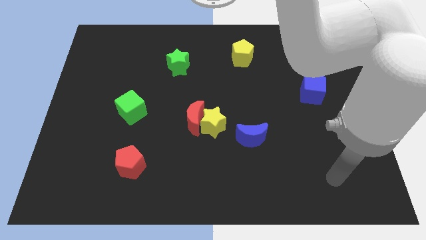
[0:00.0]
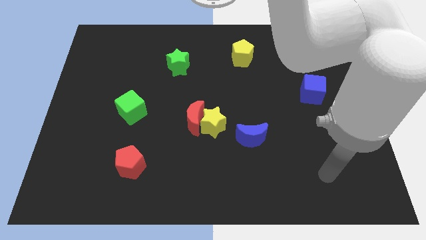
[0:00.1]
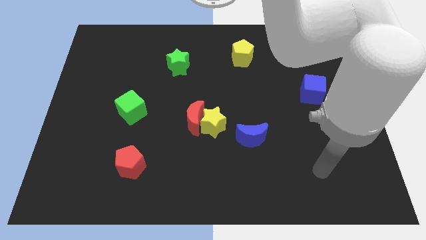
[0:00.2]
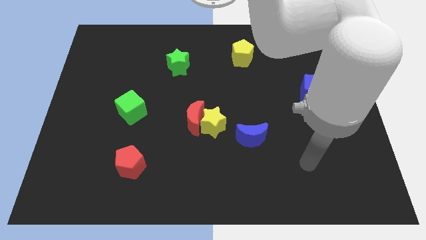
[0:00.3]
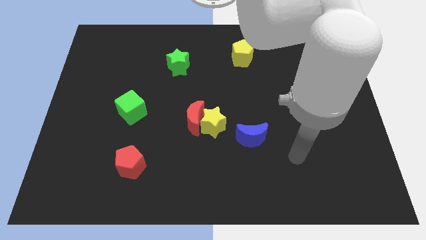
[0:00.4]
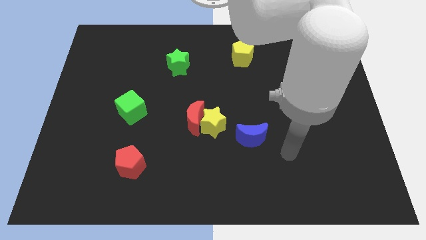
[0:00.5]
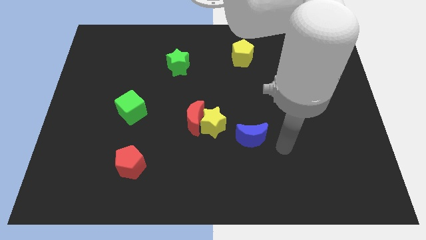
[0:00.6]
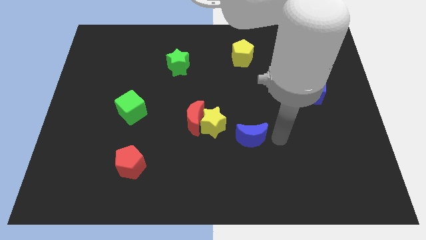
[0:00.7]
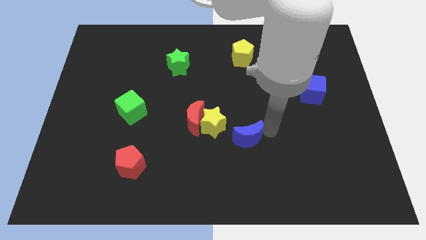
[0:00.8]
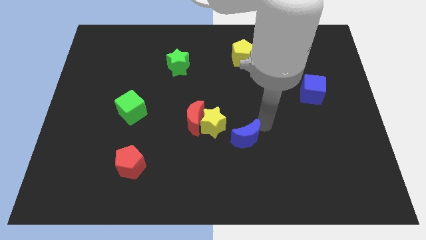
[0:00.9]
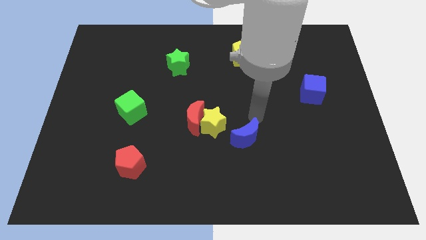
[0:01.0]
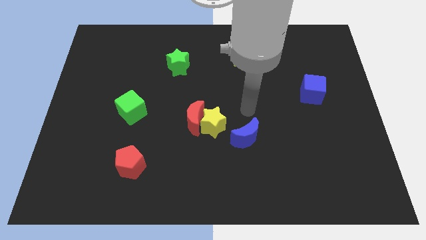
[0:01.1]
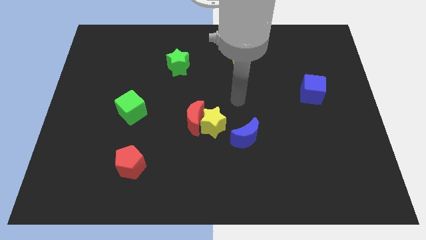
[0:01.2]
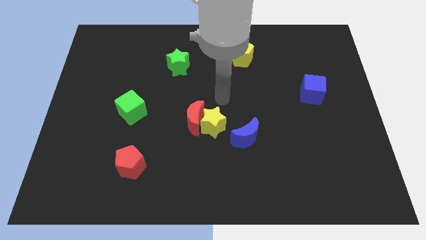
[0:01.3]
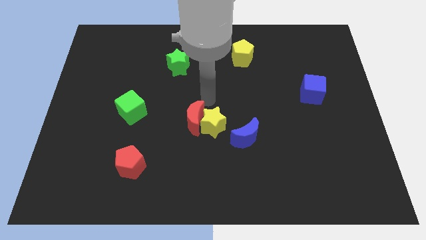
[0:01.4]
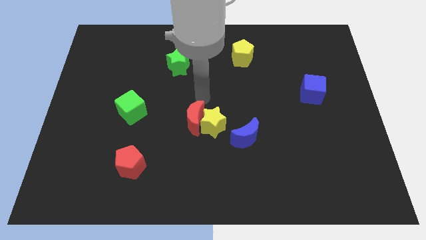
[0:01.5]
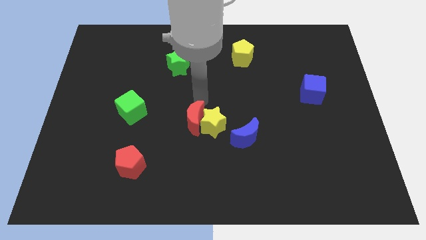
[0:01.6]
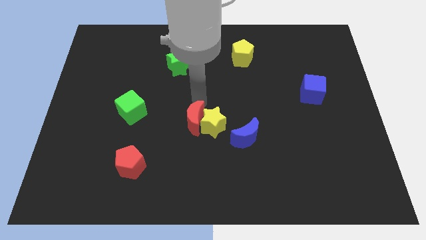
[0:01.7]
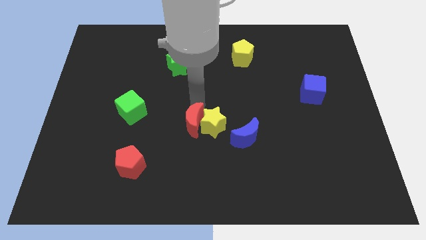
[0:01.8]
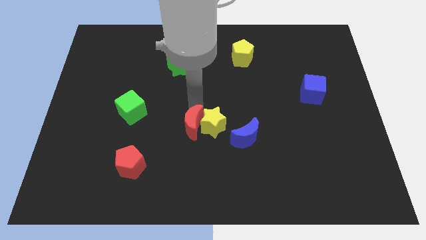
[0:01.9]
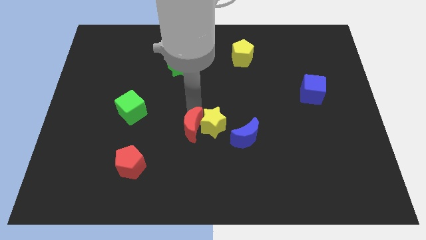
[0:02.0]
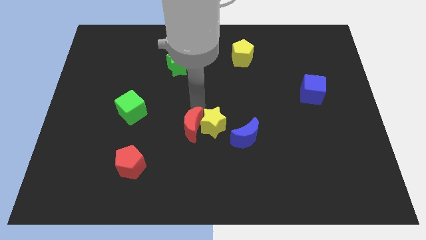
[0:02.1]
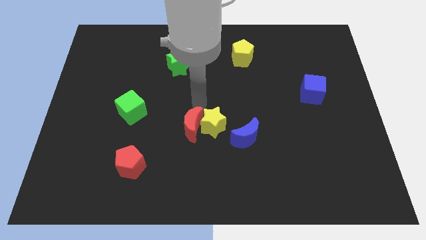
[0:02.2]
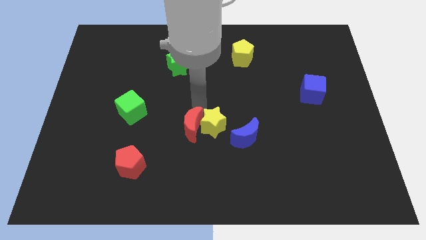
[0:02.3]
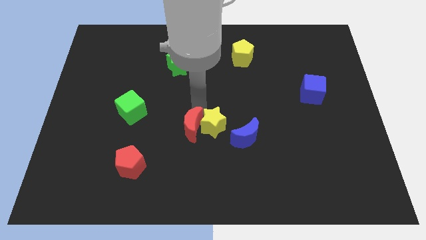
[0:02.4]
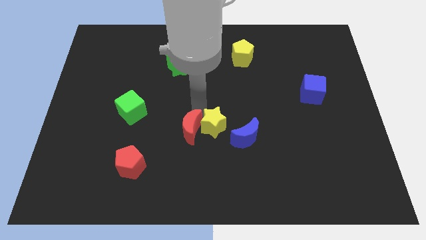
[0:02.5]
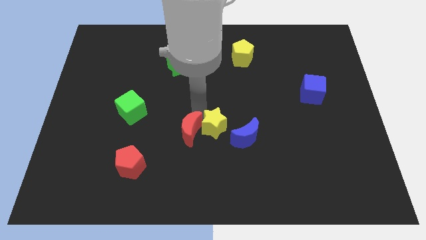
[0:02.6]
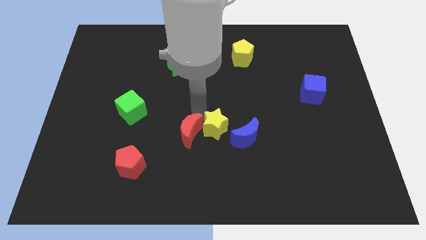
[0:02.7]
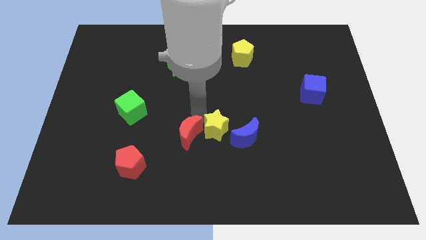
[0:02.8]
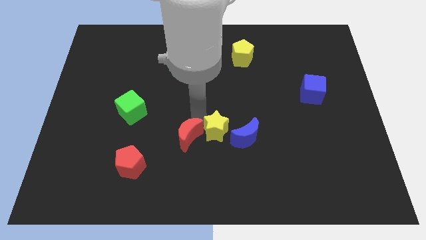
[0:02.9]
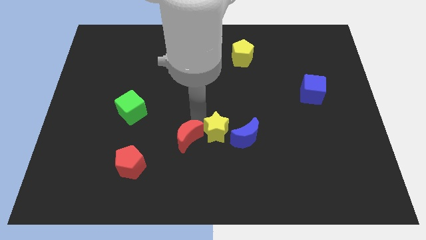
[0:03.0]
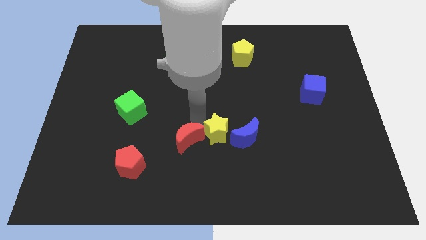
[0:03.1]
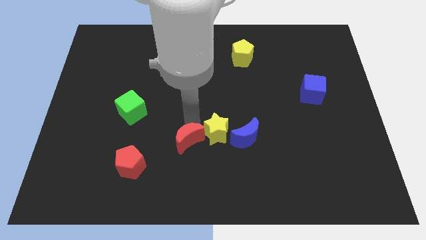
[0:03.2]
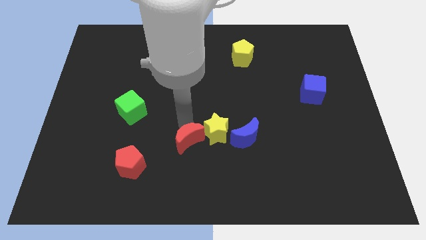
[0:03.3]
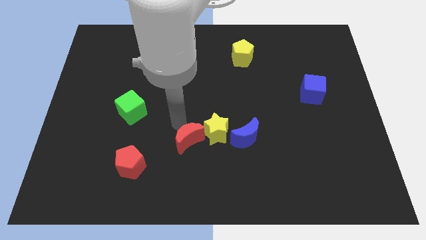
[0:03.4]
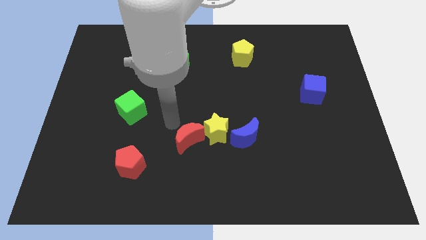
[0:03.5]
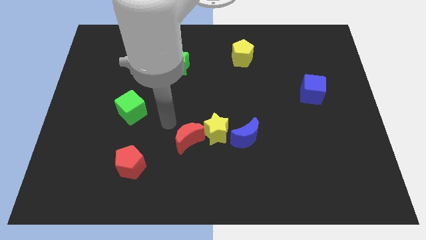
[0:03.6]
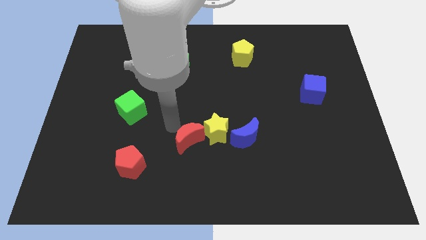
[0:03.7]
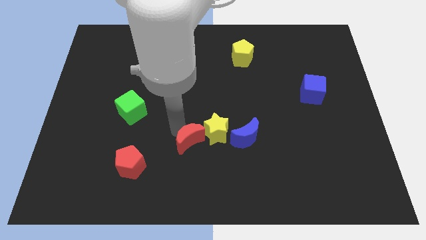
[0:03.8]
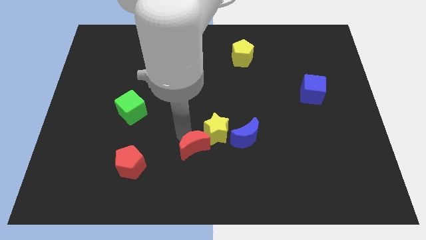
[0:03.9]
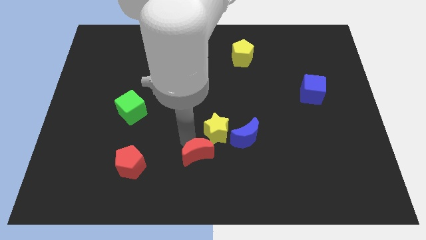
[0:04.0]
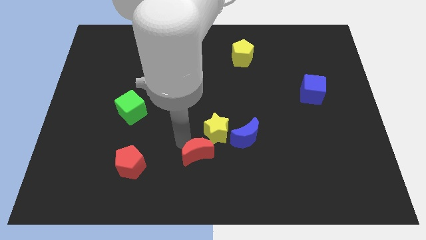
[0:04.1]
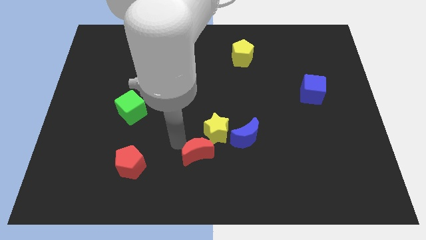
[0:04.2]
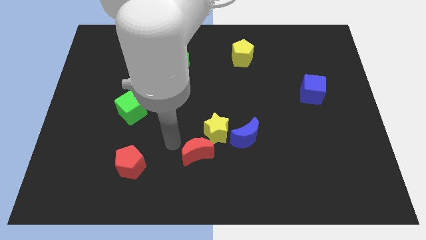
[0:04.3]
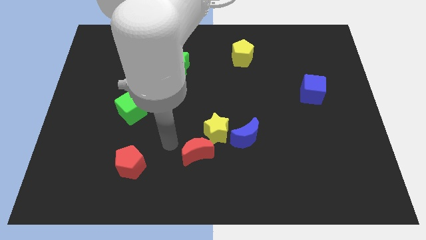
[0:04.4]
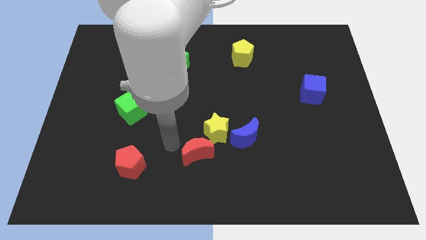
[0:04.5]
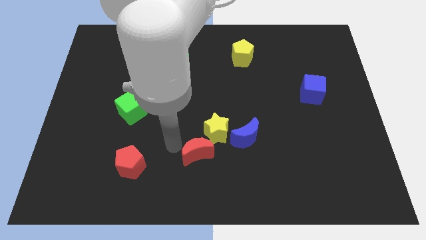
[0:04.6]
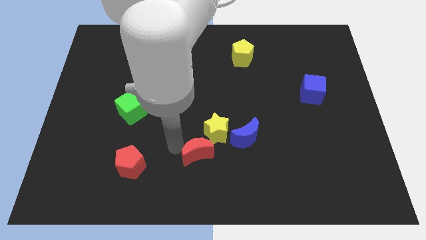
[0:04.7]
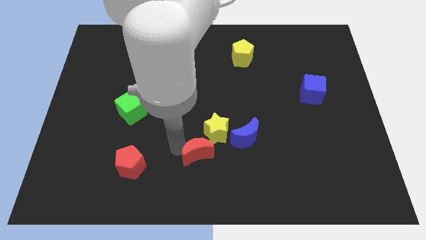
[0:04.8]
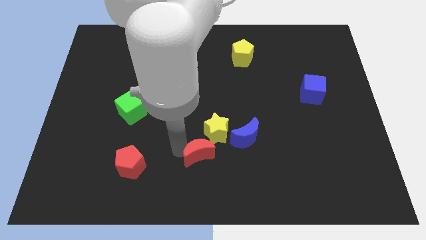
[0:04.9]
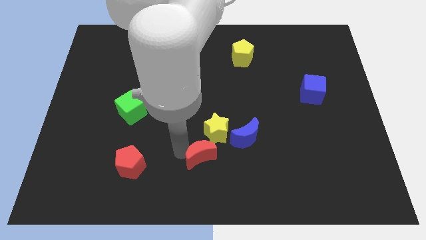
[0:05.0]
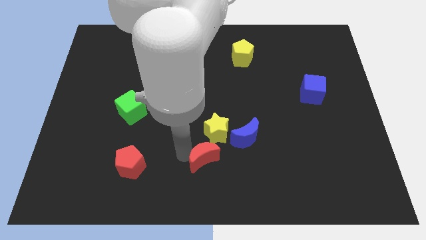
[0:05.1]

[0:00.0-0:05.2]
slightly push the red moon down and then to the right

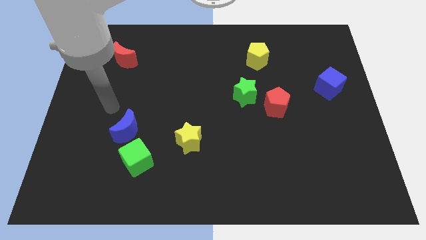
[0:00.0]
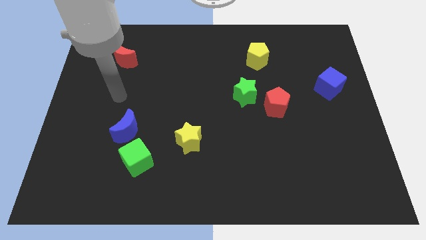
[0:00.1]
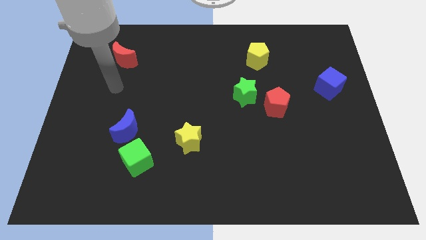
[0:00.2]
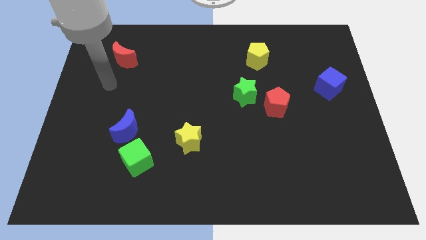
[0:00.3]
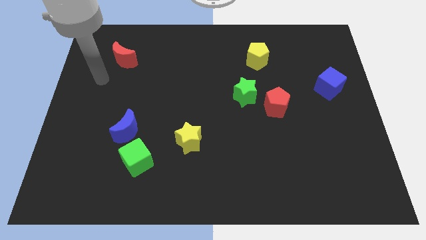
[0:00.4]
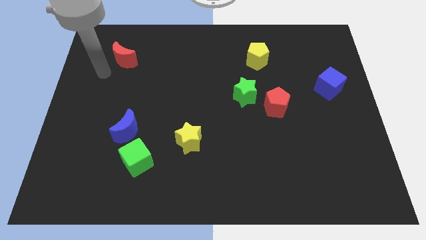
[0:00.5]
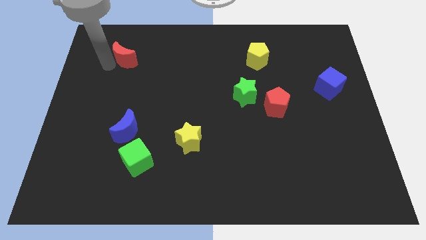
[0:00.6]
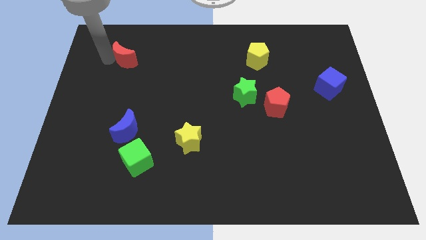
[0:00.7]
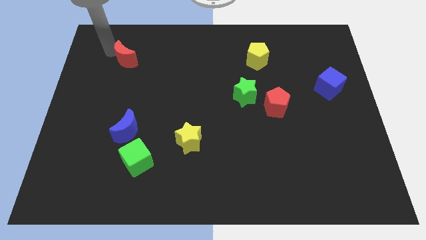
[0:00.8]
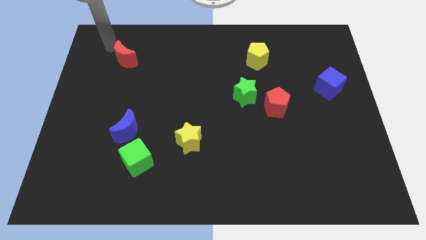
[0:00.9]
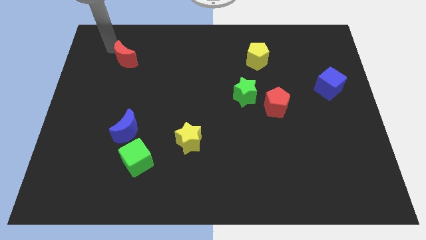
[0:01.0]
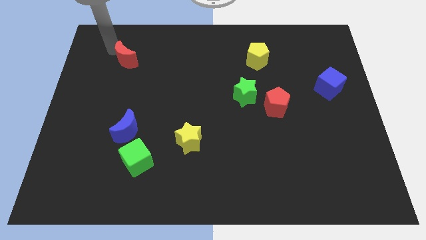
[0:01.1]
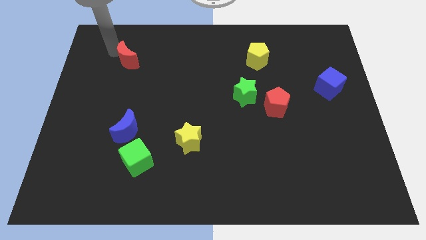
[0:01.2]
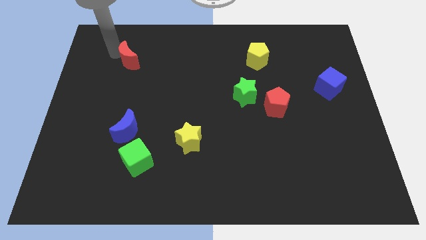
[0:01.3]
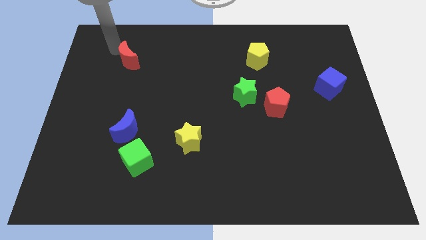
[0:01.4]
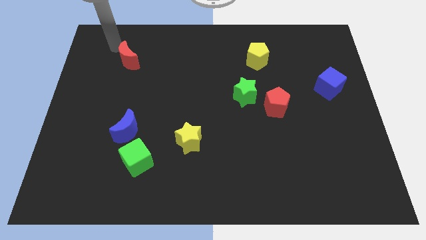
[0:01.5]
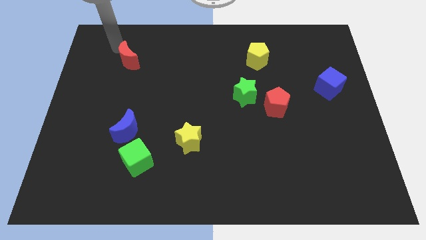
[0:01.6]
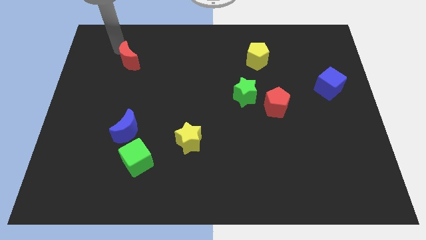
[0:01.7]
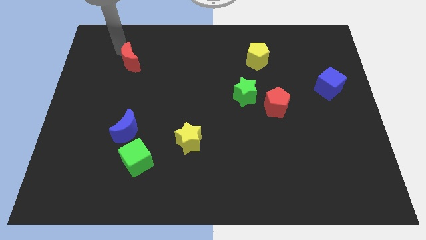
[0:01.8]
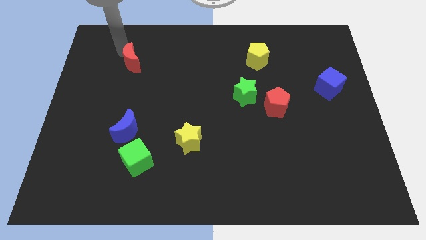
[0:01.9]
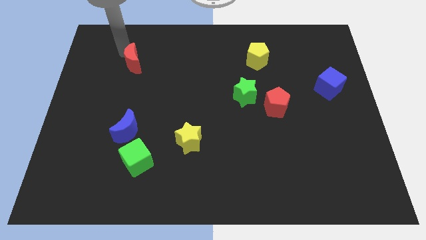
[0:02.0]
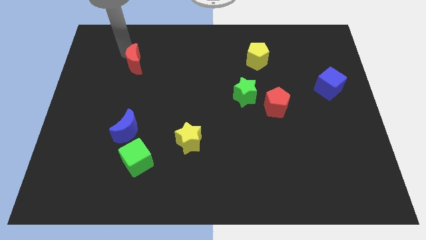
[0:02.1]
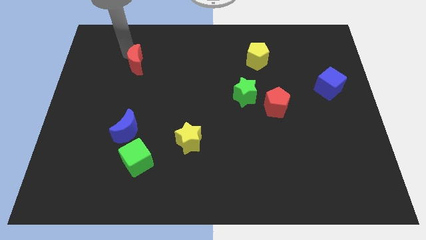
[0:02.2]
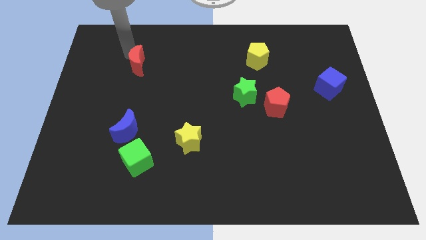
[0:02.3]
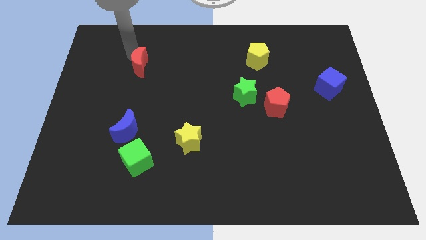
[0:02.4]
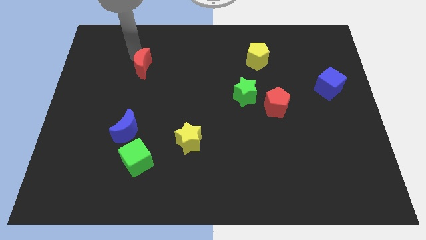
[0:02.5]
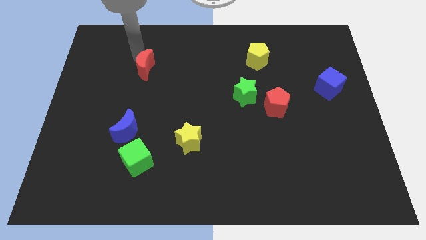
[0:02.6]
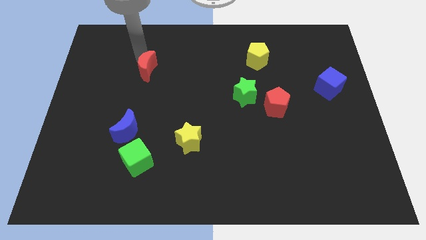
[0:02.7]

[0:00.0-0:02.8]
slightly slide the red moon downwards and then to the right

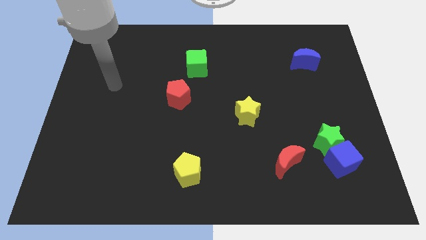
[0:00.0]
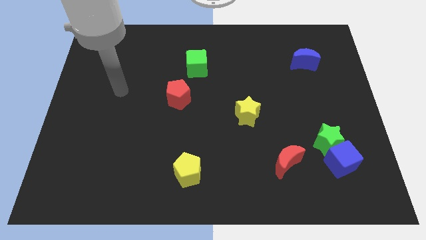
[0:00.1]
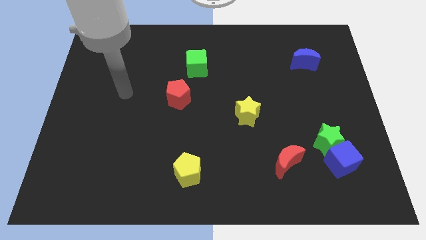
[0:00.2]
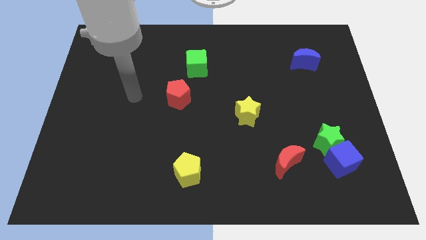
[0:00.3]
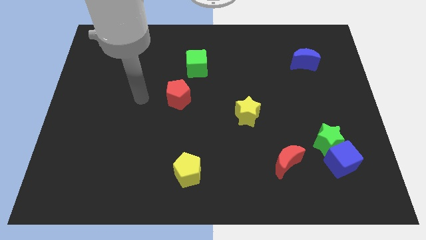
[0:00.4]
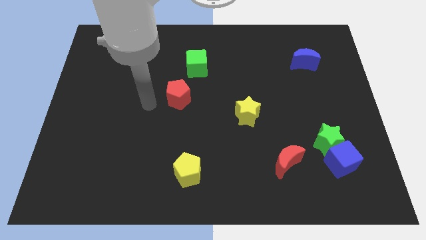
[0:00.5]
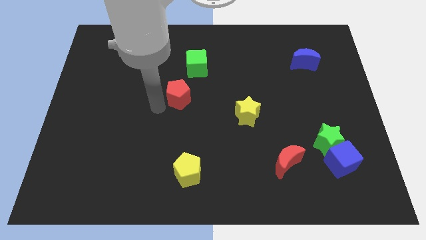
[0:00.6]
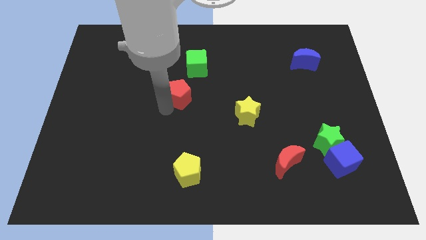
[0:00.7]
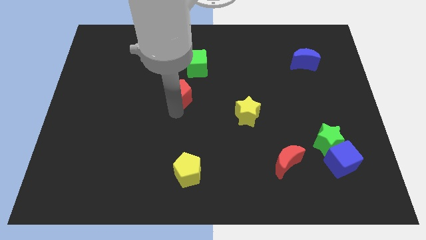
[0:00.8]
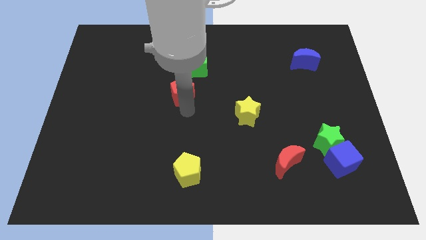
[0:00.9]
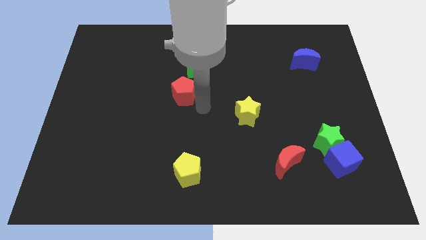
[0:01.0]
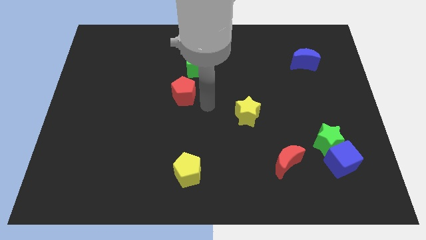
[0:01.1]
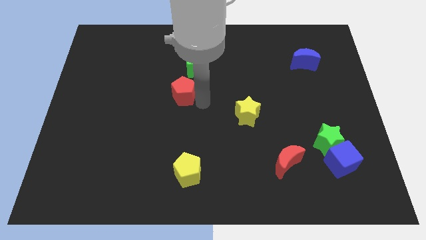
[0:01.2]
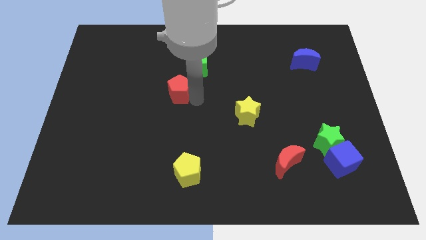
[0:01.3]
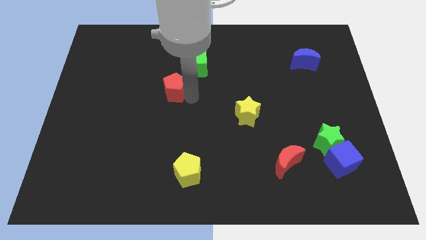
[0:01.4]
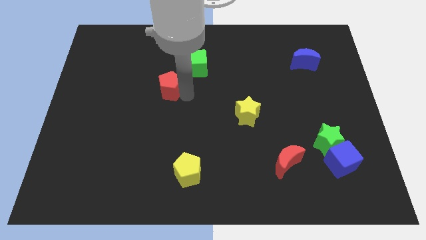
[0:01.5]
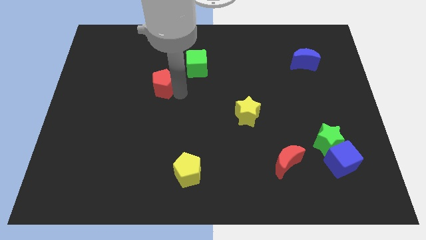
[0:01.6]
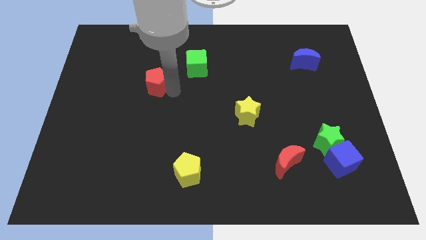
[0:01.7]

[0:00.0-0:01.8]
slightly move the red pentagon up and to the left
